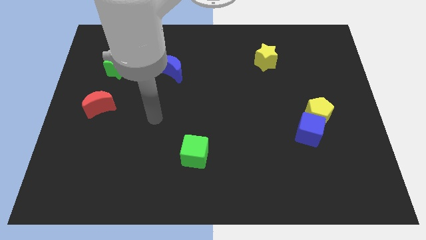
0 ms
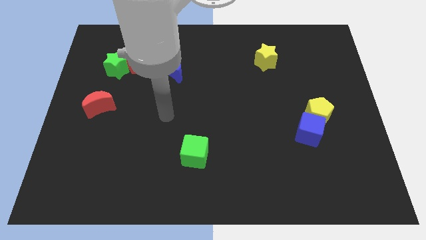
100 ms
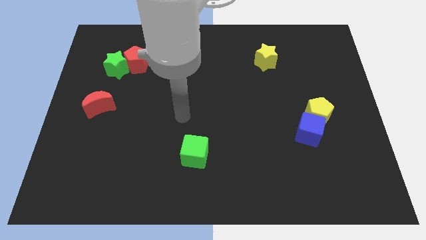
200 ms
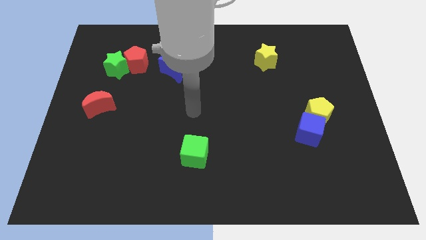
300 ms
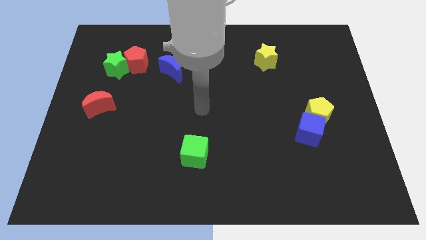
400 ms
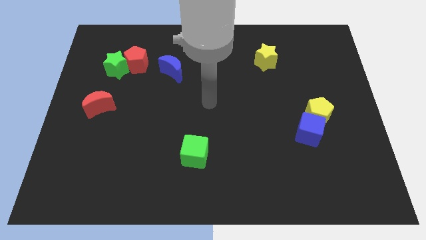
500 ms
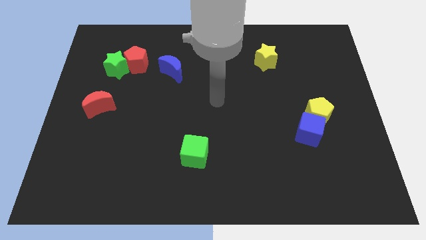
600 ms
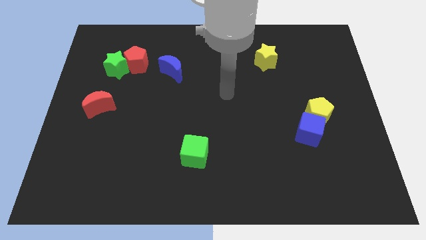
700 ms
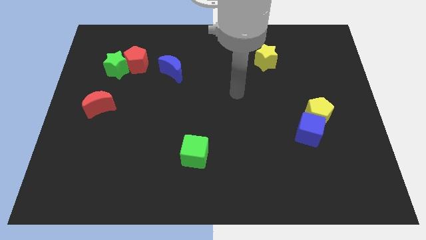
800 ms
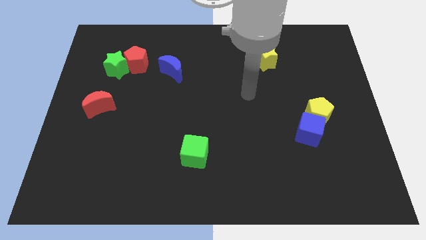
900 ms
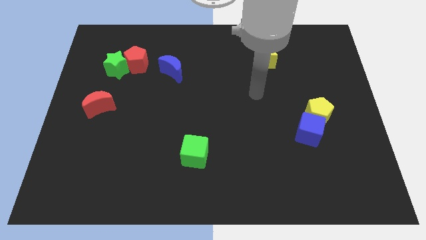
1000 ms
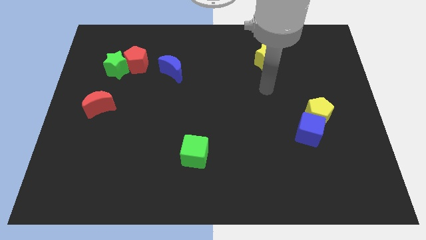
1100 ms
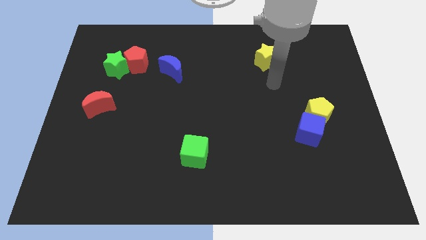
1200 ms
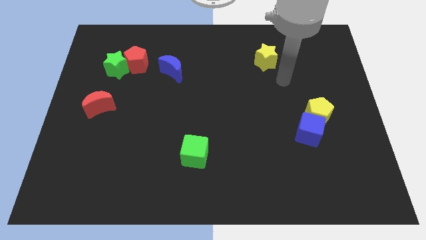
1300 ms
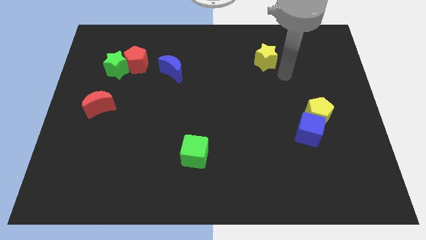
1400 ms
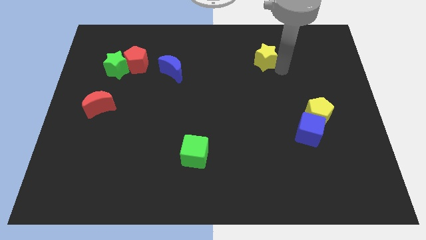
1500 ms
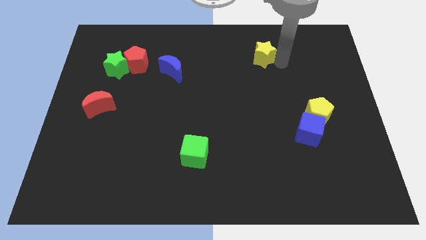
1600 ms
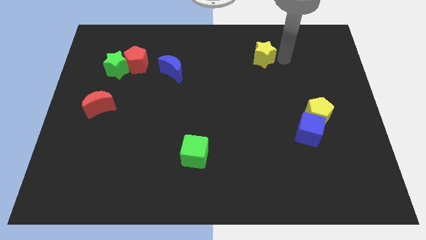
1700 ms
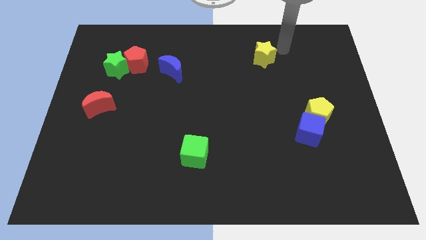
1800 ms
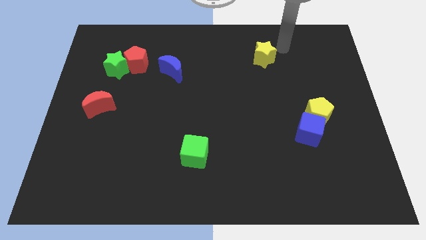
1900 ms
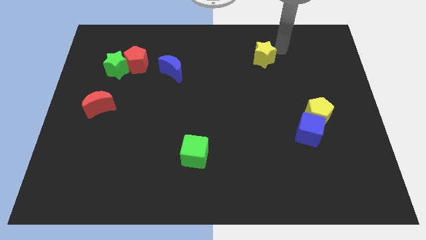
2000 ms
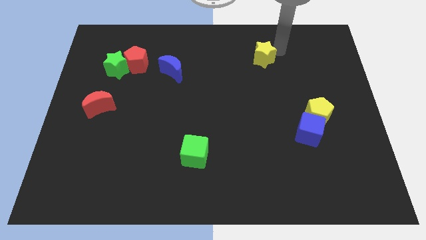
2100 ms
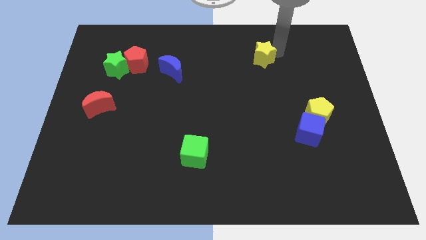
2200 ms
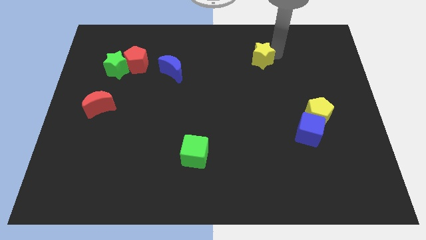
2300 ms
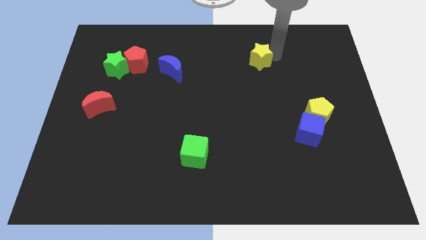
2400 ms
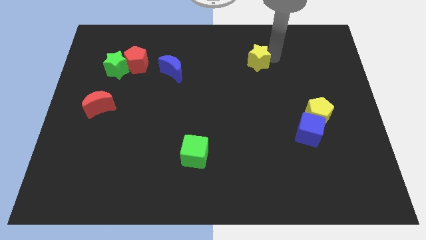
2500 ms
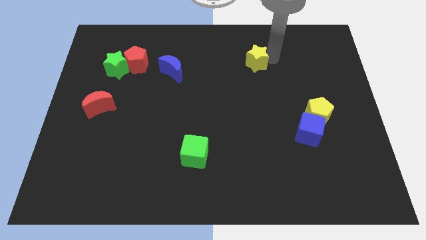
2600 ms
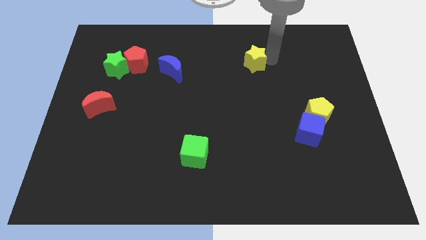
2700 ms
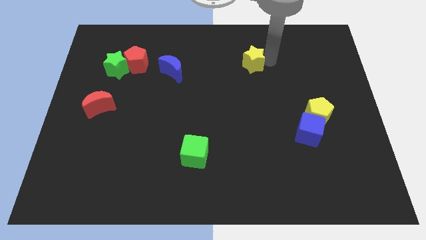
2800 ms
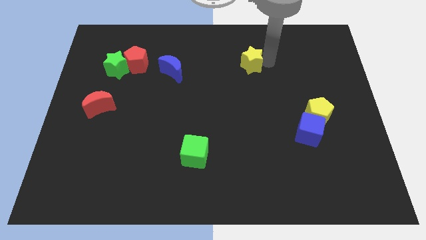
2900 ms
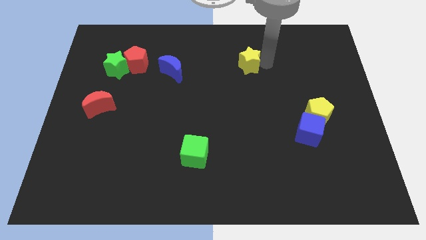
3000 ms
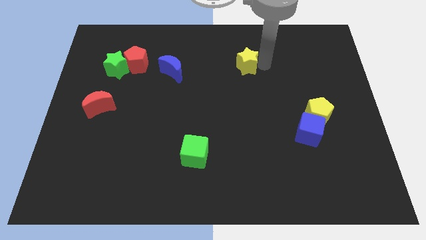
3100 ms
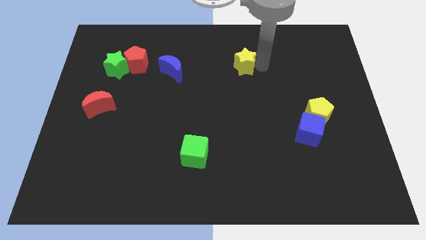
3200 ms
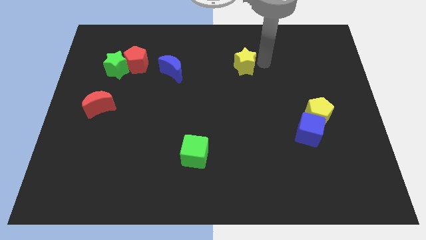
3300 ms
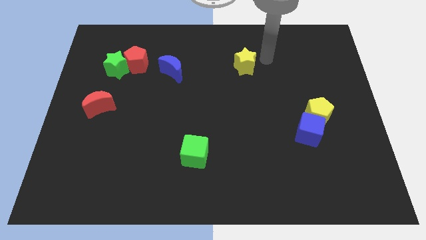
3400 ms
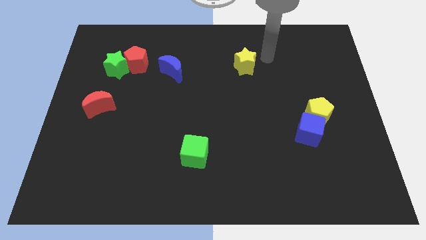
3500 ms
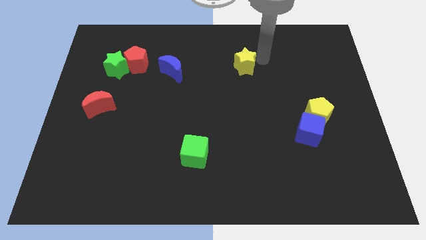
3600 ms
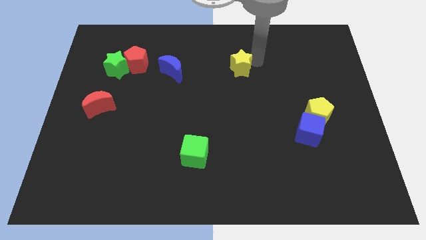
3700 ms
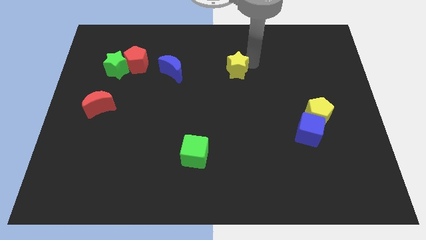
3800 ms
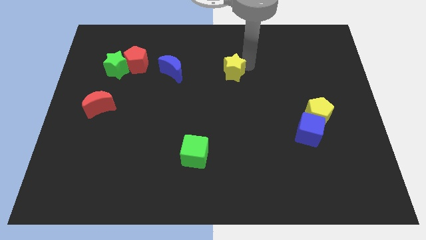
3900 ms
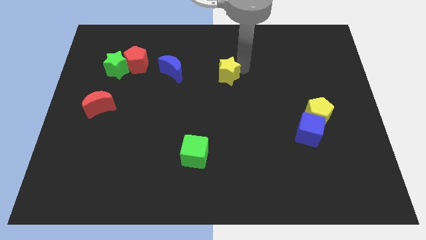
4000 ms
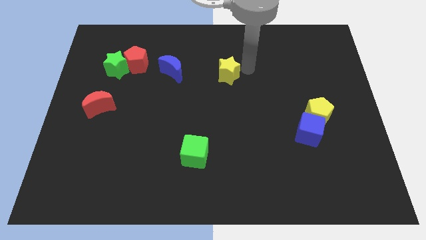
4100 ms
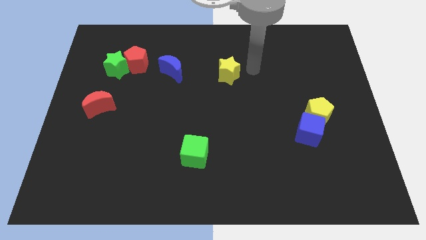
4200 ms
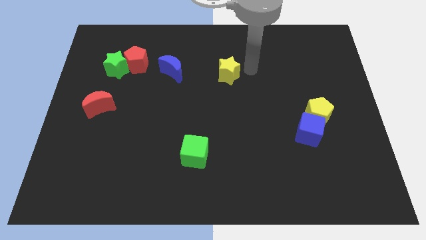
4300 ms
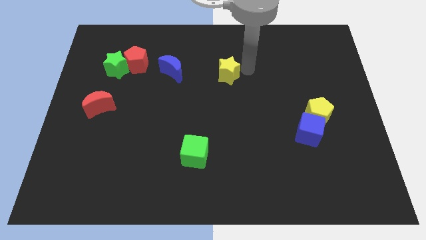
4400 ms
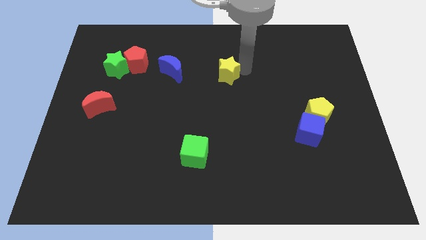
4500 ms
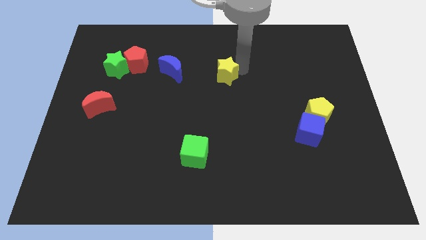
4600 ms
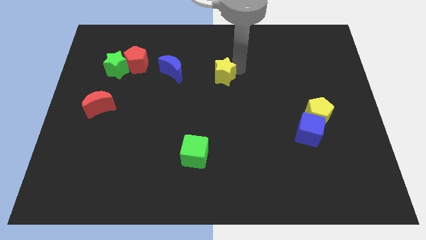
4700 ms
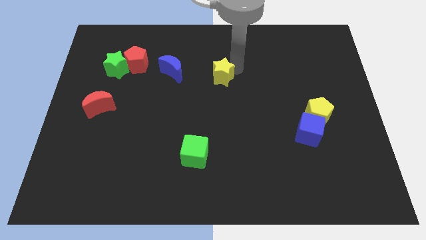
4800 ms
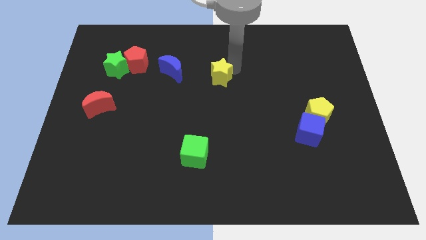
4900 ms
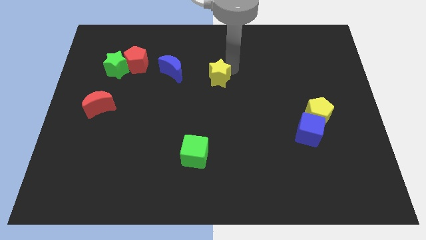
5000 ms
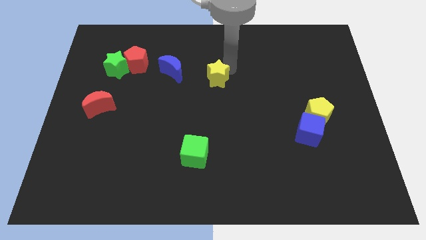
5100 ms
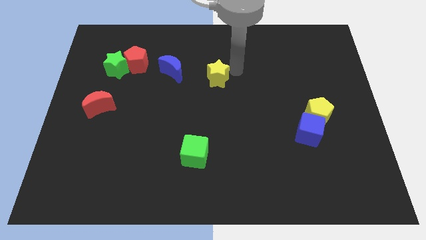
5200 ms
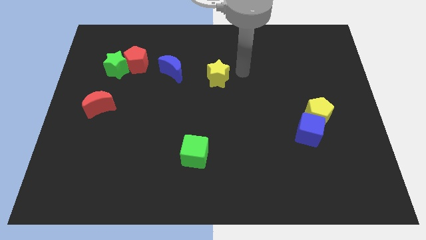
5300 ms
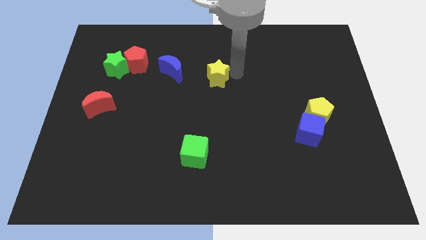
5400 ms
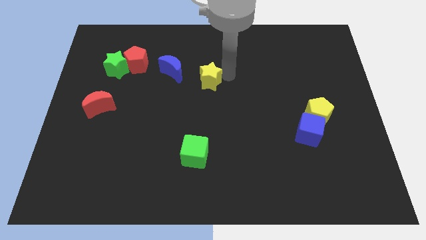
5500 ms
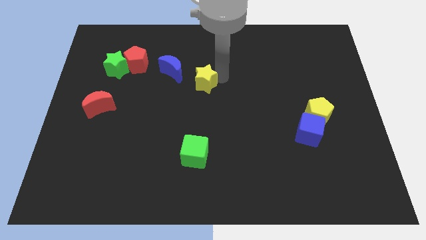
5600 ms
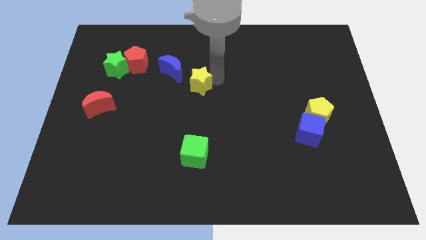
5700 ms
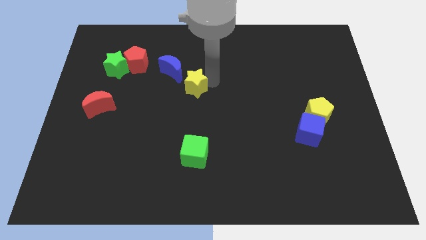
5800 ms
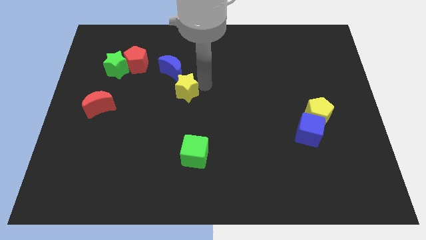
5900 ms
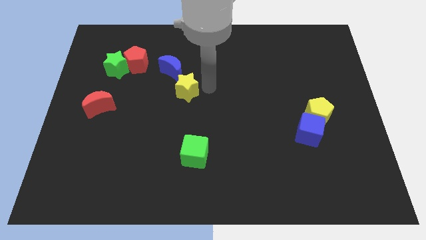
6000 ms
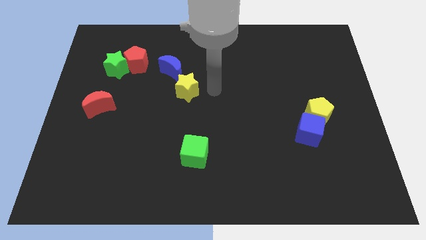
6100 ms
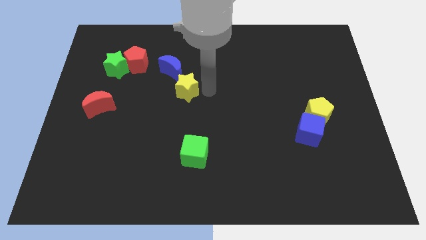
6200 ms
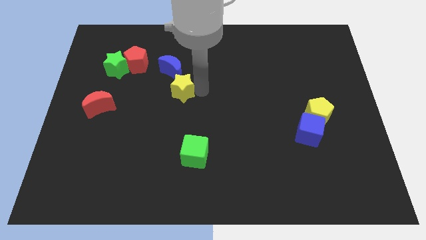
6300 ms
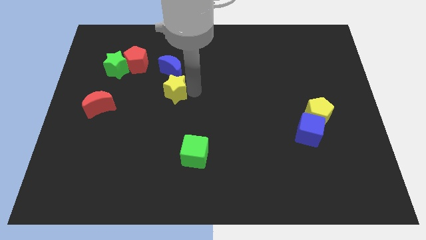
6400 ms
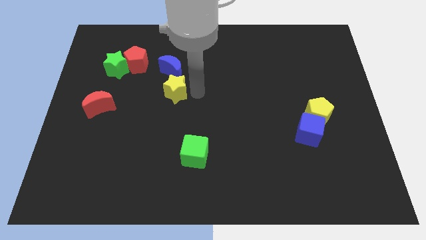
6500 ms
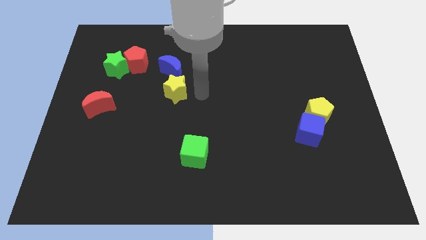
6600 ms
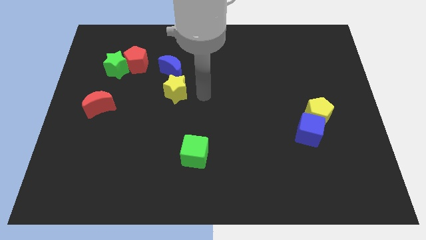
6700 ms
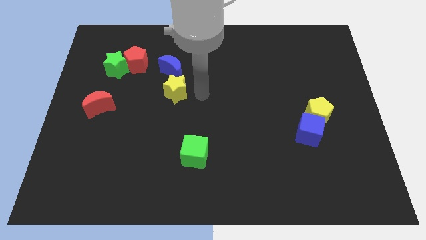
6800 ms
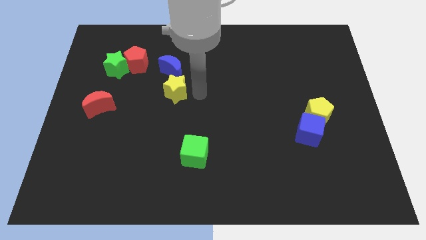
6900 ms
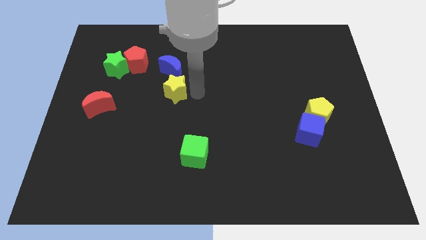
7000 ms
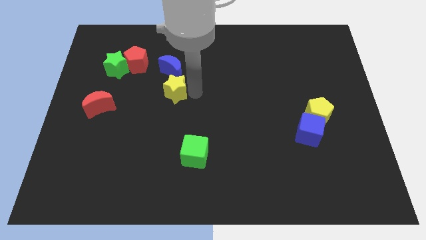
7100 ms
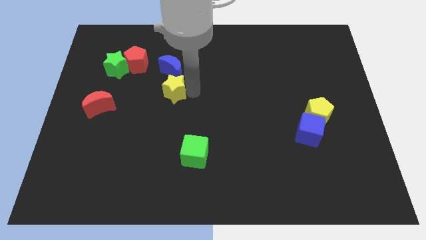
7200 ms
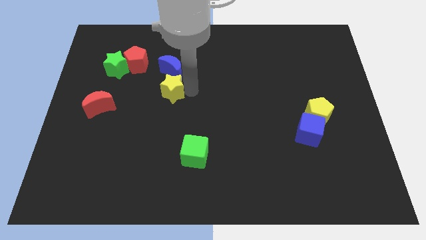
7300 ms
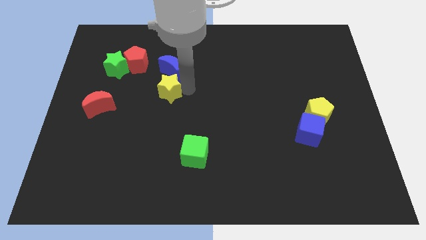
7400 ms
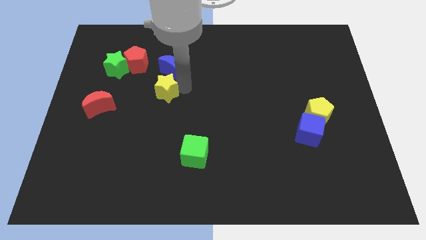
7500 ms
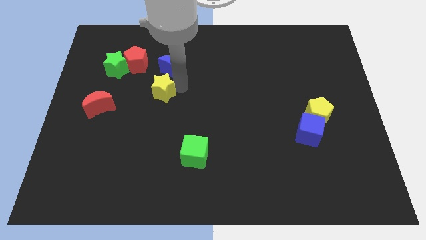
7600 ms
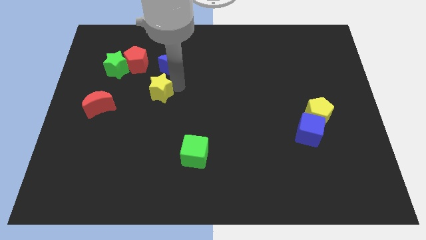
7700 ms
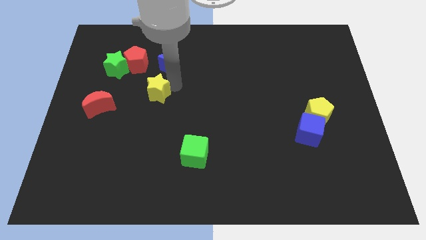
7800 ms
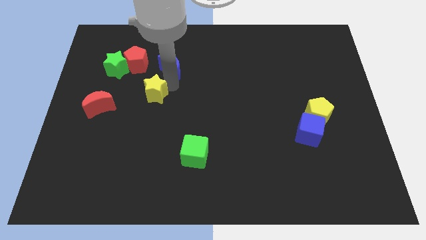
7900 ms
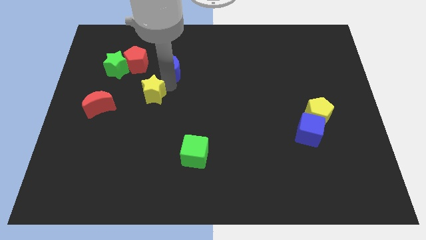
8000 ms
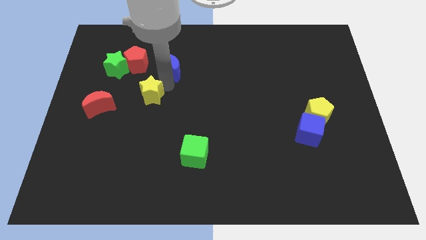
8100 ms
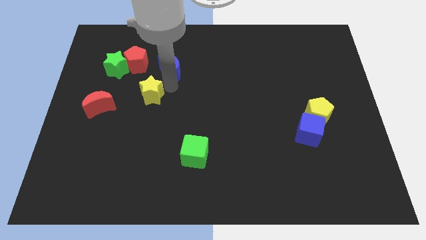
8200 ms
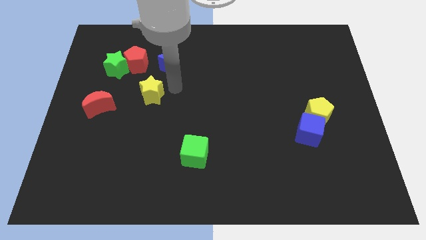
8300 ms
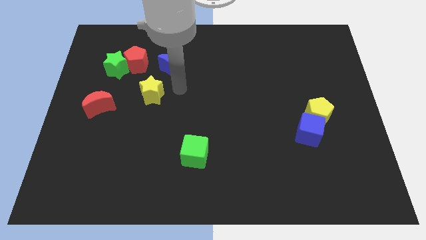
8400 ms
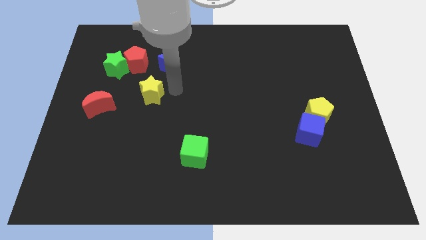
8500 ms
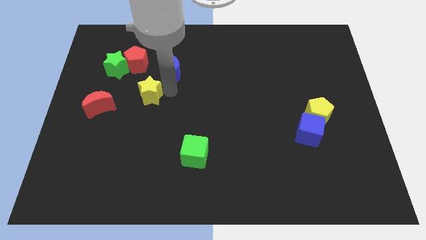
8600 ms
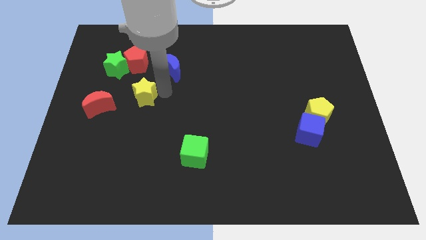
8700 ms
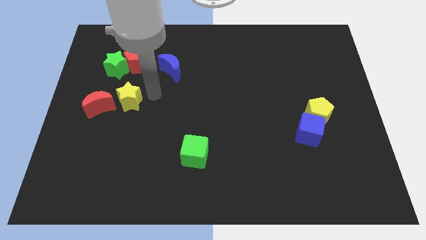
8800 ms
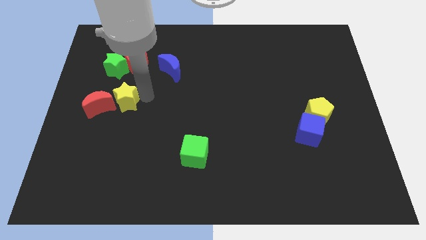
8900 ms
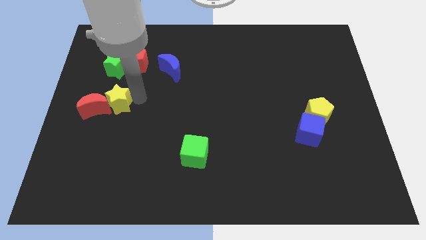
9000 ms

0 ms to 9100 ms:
put the yellow star to the red moon
